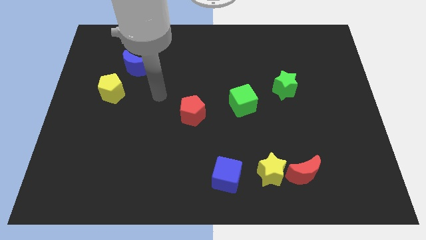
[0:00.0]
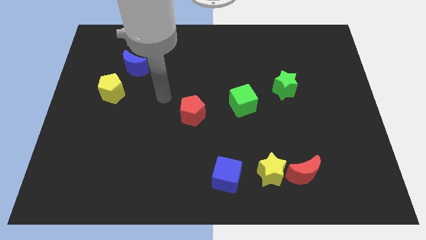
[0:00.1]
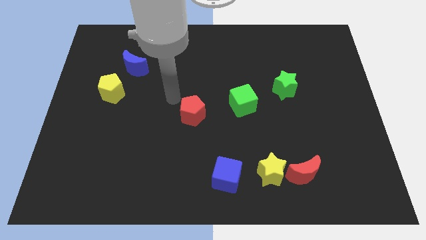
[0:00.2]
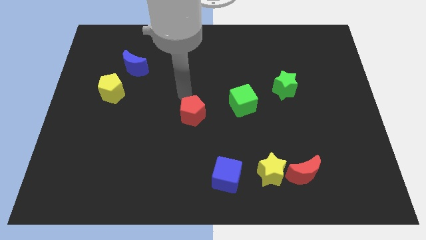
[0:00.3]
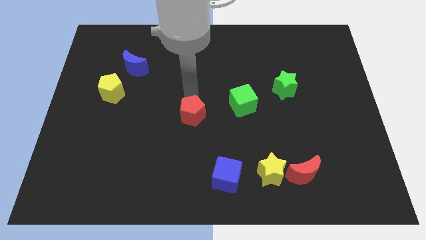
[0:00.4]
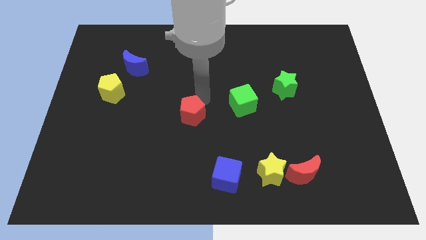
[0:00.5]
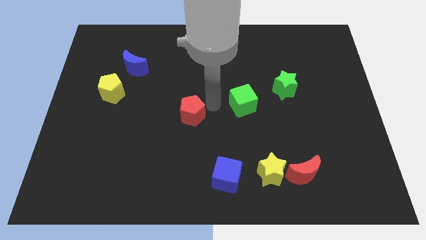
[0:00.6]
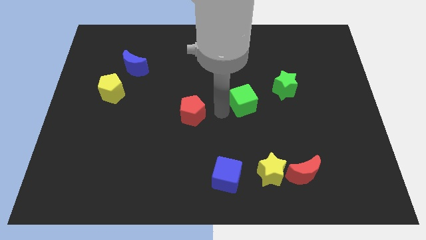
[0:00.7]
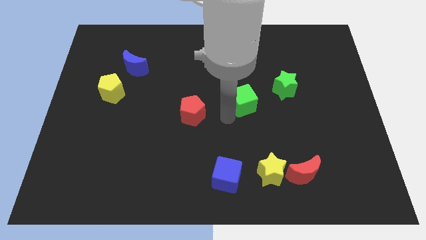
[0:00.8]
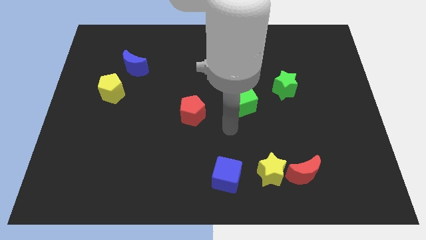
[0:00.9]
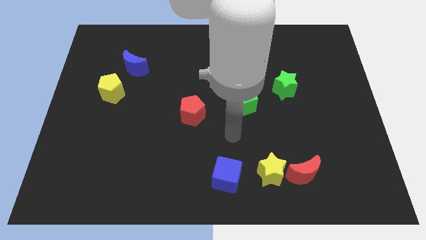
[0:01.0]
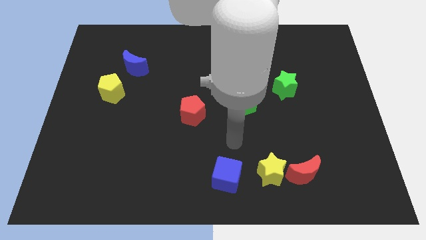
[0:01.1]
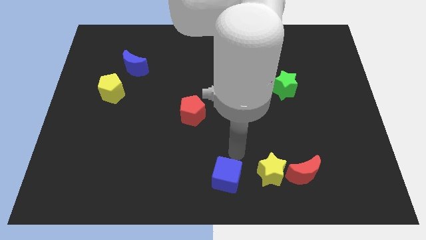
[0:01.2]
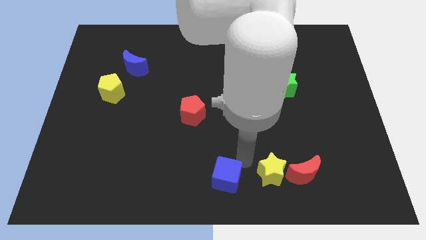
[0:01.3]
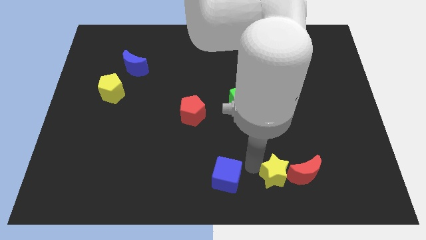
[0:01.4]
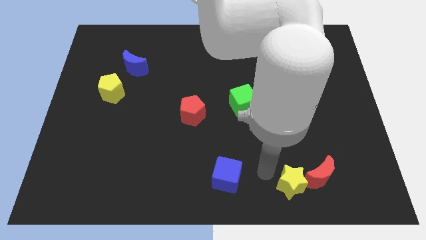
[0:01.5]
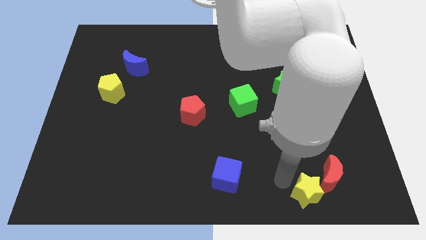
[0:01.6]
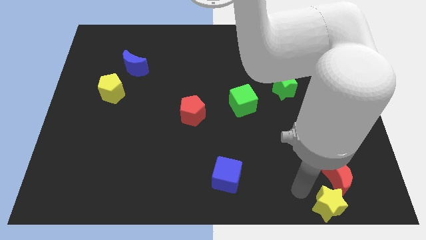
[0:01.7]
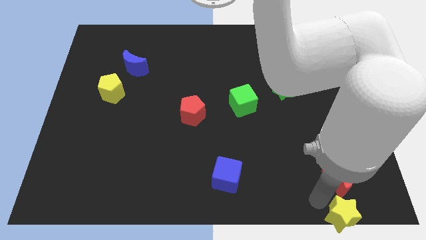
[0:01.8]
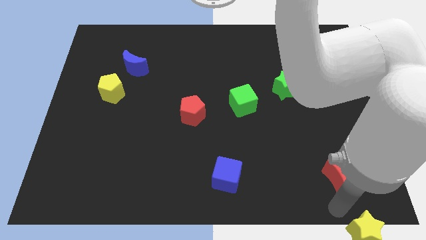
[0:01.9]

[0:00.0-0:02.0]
pull the red moon apart from the yellow star

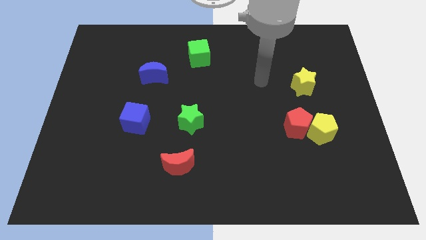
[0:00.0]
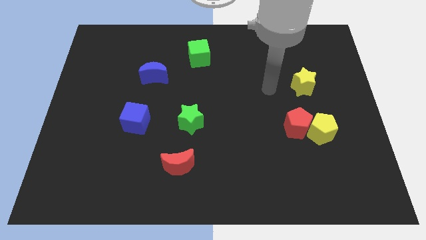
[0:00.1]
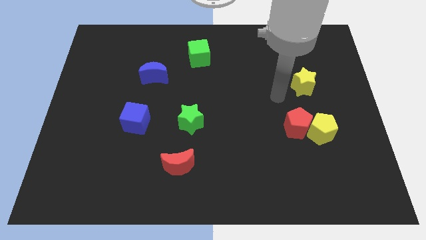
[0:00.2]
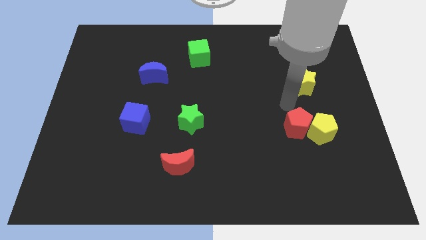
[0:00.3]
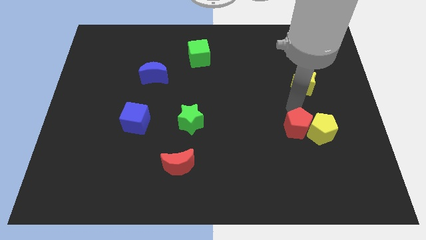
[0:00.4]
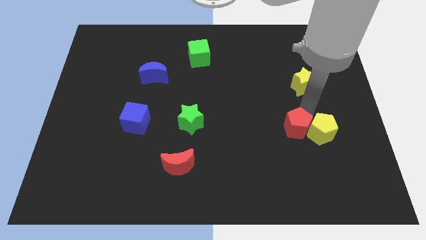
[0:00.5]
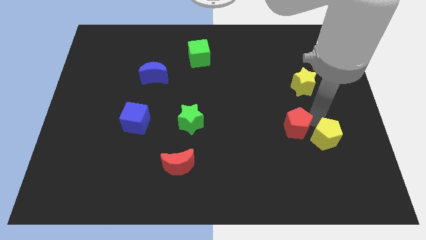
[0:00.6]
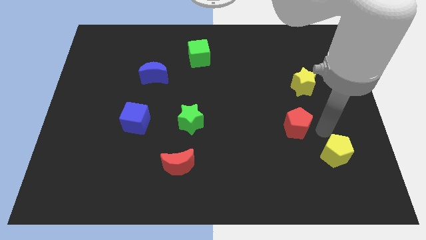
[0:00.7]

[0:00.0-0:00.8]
separate the red pentagon from the yellow pentagon

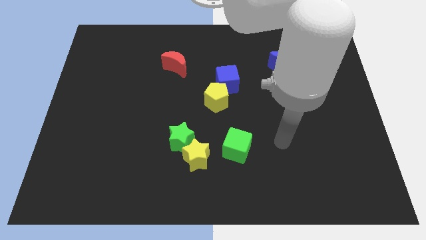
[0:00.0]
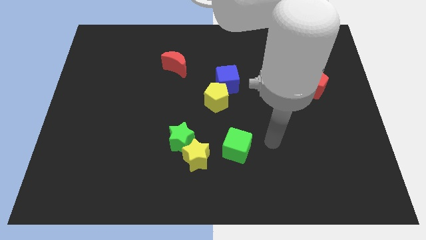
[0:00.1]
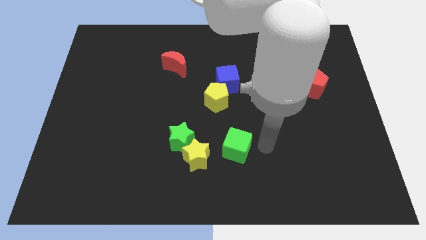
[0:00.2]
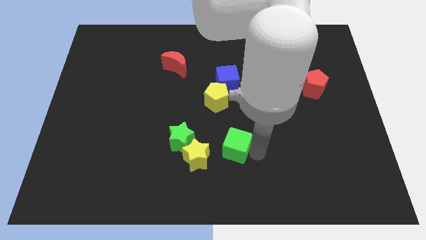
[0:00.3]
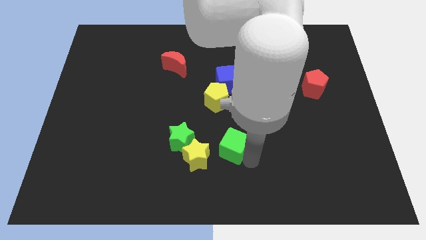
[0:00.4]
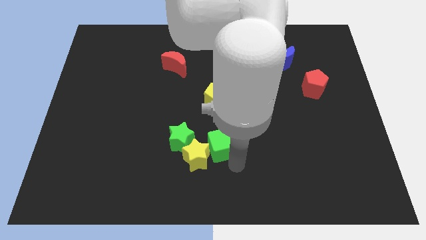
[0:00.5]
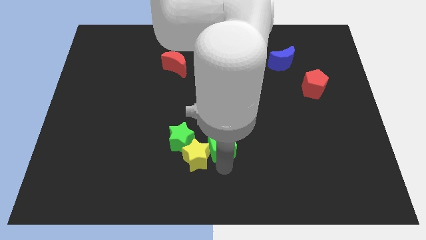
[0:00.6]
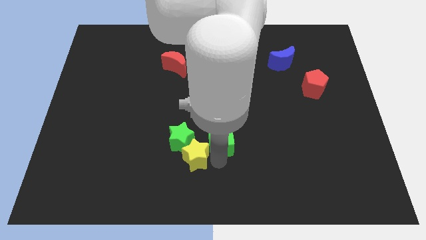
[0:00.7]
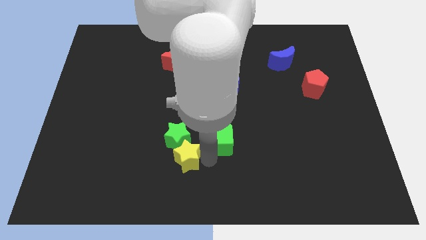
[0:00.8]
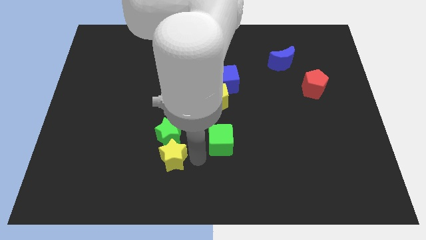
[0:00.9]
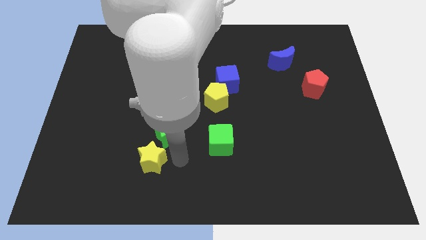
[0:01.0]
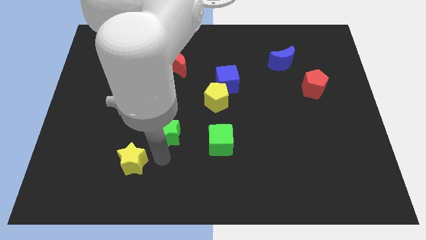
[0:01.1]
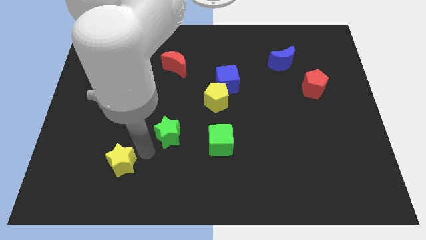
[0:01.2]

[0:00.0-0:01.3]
move the green star away from the yellow star

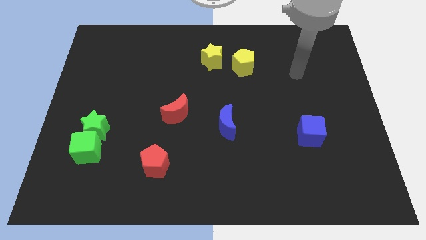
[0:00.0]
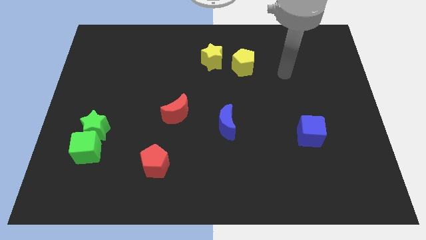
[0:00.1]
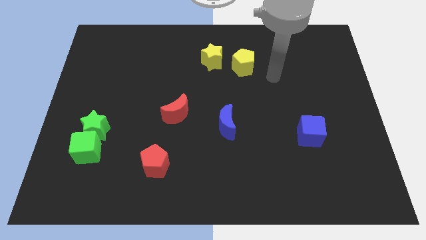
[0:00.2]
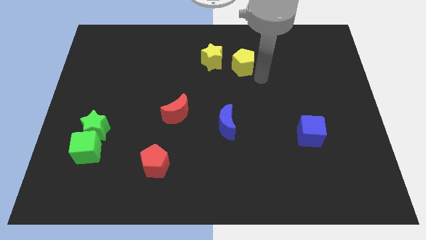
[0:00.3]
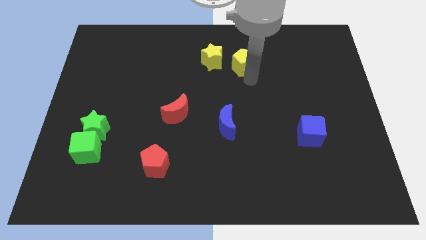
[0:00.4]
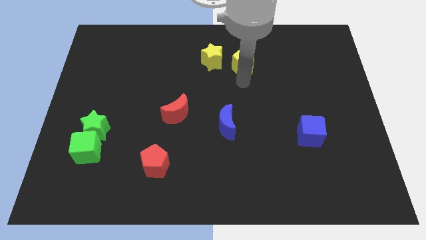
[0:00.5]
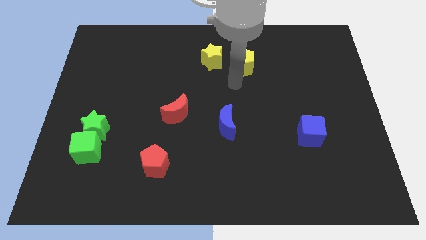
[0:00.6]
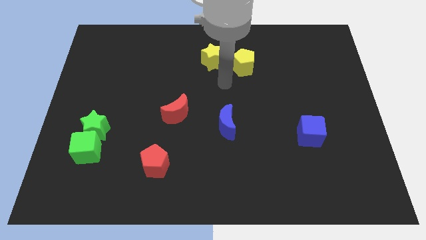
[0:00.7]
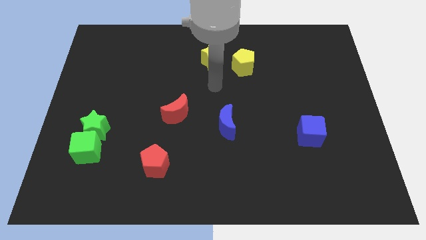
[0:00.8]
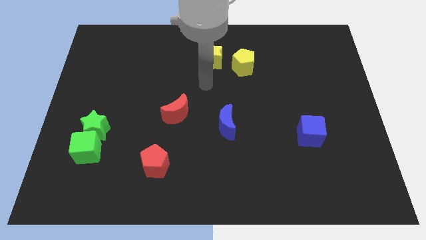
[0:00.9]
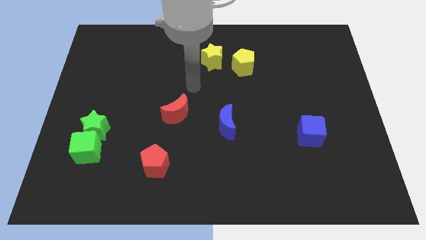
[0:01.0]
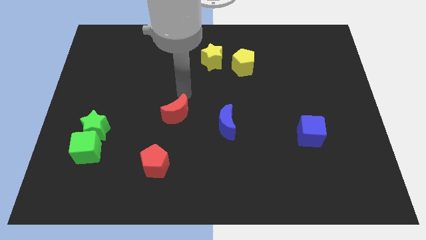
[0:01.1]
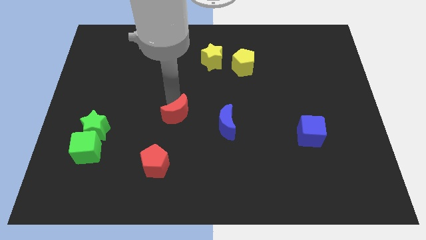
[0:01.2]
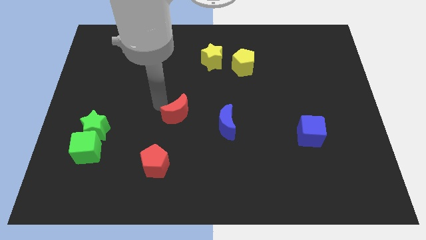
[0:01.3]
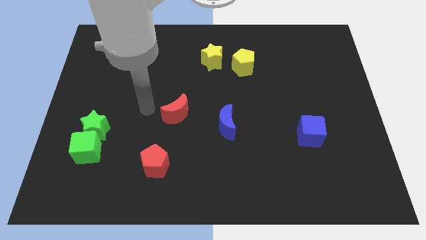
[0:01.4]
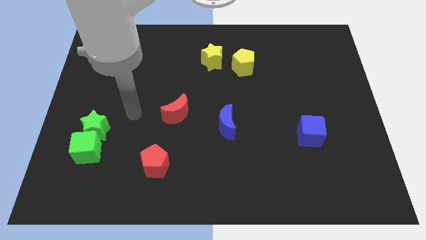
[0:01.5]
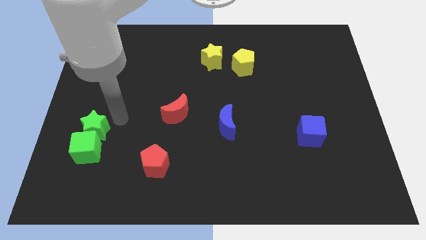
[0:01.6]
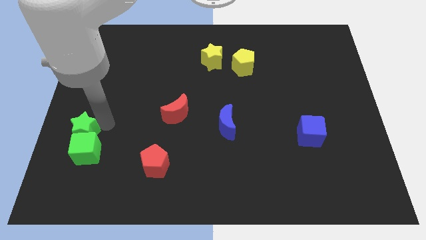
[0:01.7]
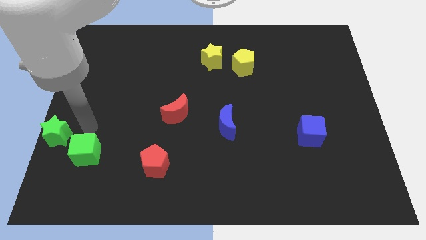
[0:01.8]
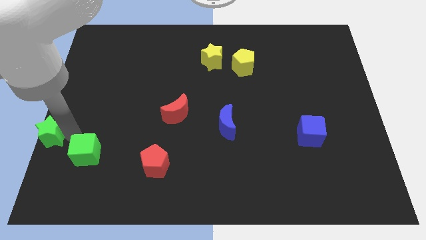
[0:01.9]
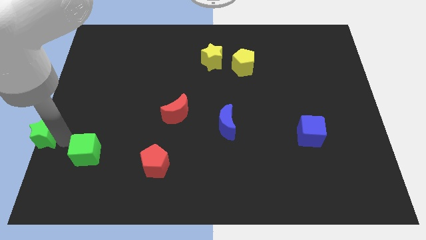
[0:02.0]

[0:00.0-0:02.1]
separate the green cube from the green star

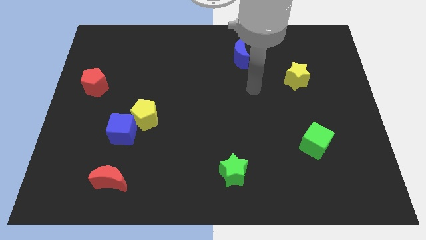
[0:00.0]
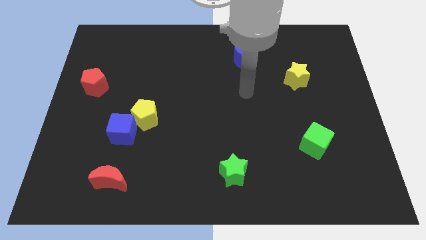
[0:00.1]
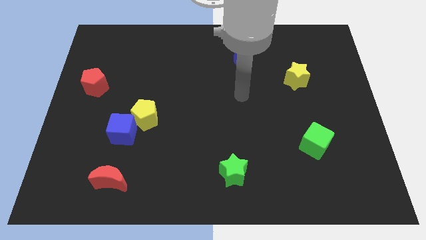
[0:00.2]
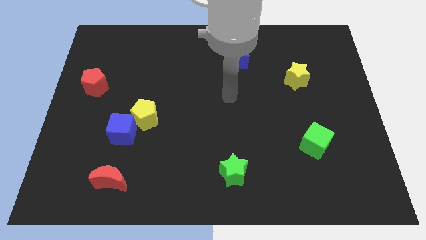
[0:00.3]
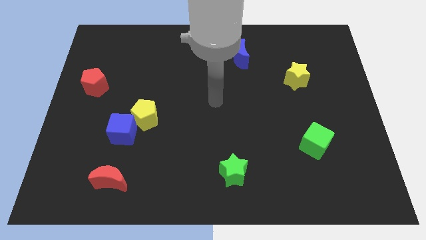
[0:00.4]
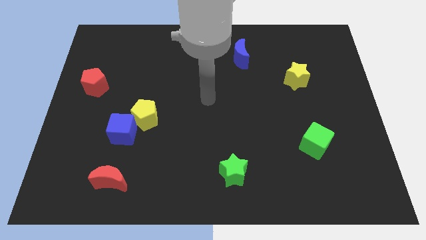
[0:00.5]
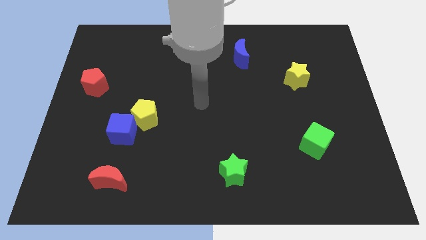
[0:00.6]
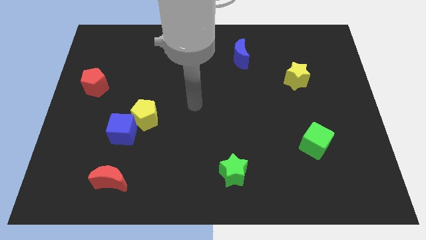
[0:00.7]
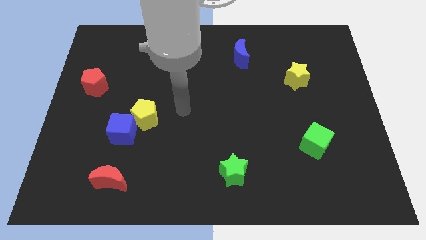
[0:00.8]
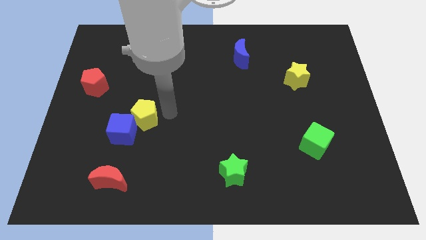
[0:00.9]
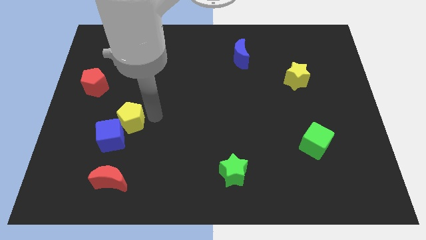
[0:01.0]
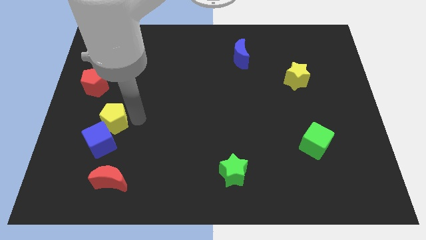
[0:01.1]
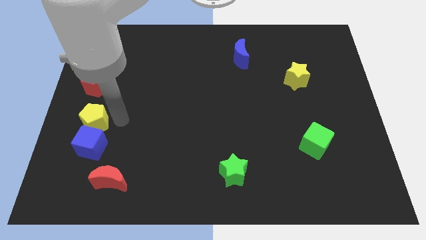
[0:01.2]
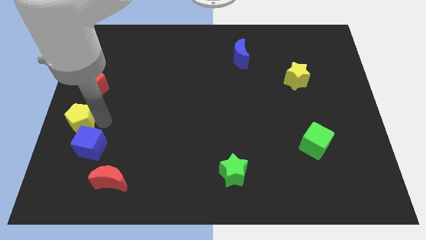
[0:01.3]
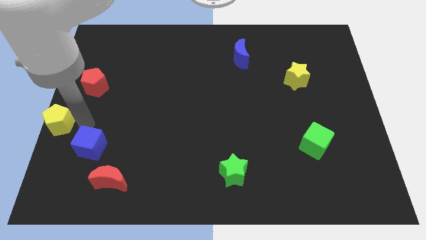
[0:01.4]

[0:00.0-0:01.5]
pull the blue cube apart from the yellow pentagon

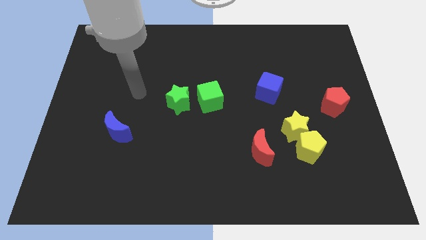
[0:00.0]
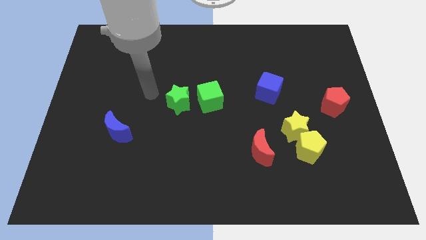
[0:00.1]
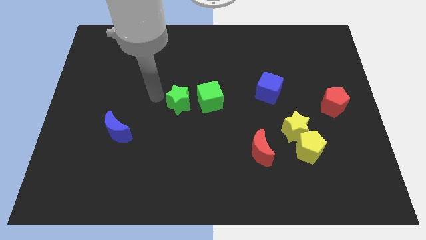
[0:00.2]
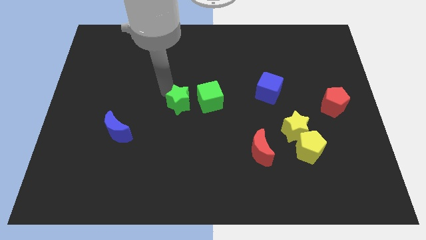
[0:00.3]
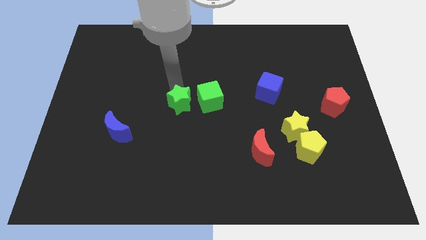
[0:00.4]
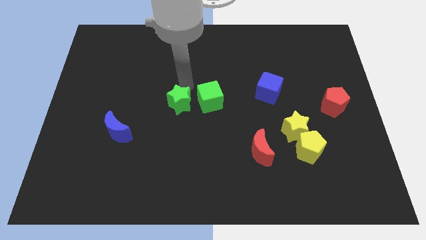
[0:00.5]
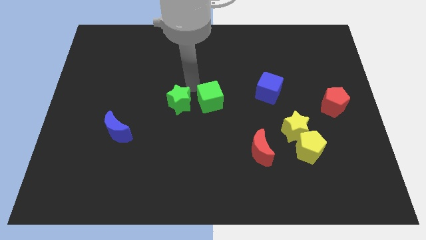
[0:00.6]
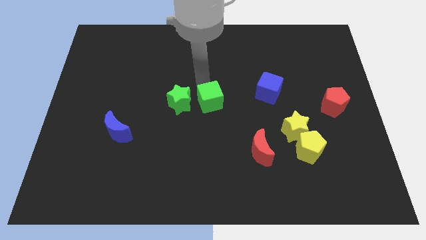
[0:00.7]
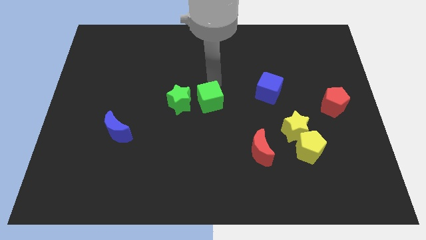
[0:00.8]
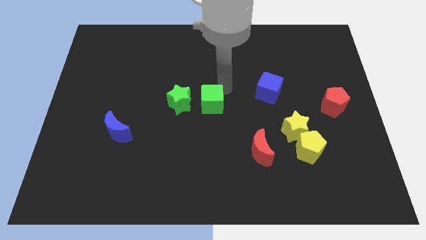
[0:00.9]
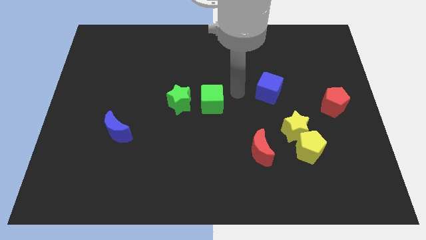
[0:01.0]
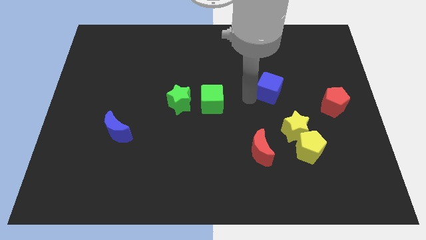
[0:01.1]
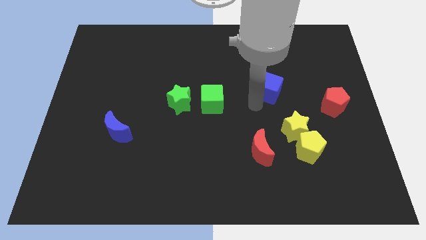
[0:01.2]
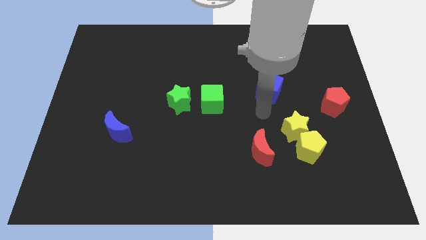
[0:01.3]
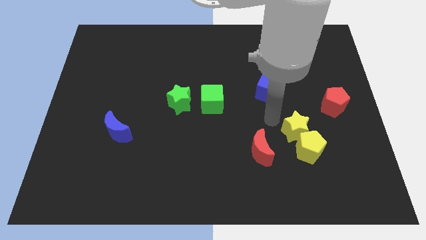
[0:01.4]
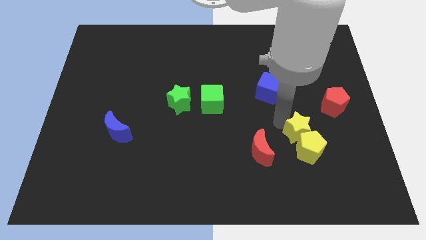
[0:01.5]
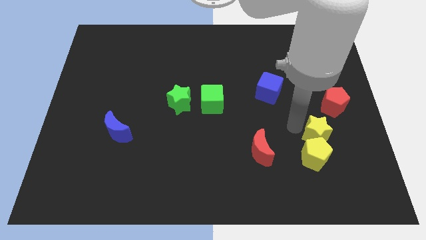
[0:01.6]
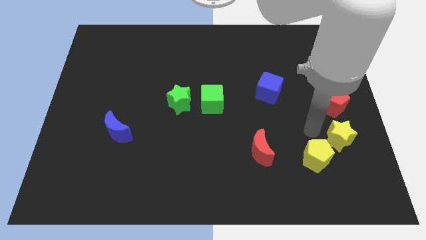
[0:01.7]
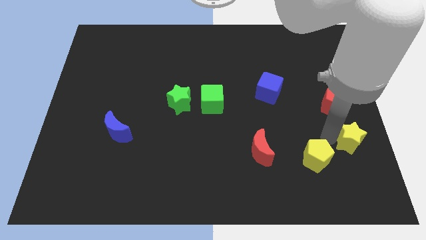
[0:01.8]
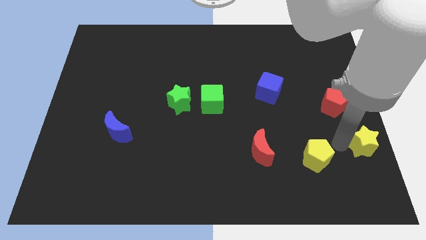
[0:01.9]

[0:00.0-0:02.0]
pull the yellow pentagon apart from the yellow star
